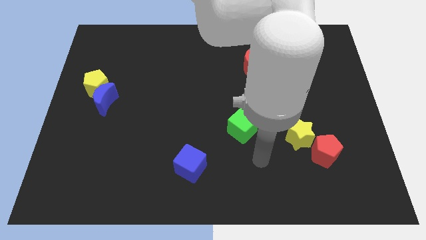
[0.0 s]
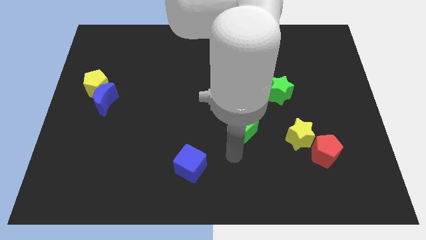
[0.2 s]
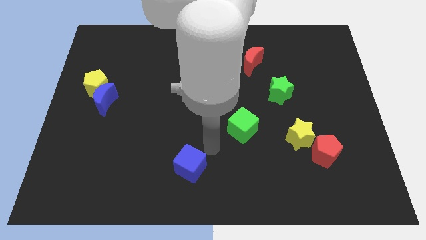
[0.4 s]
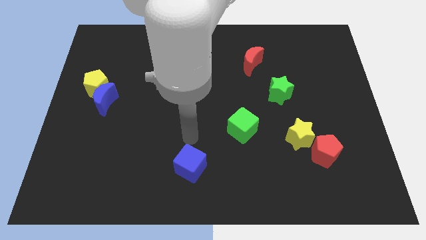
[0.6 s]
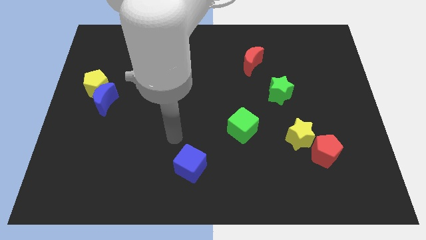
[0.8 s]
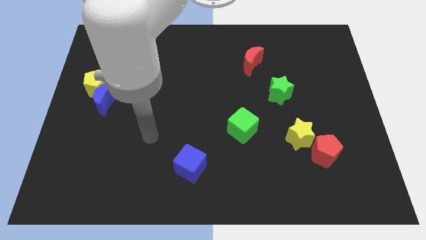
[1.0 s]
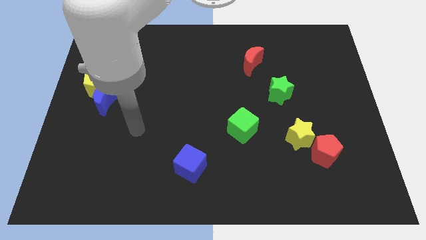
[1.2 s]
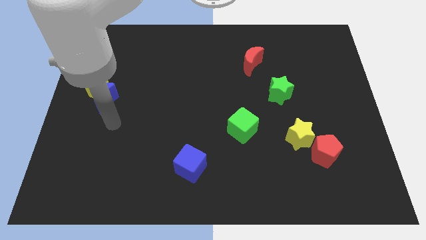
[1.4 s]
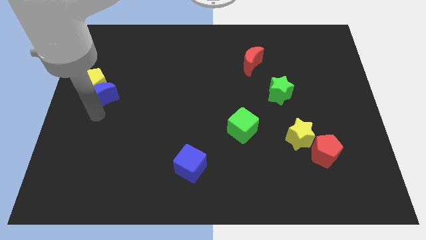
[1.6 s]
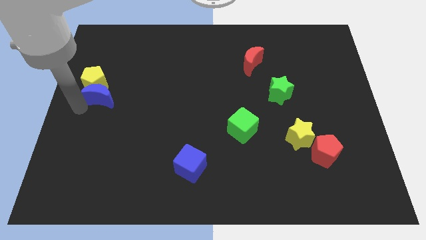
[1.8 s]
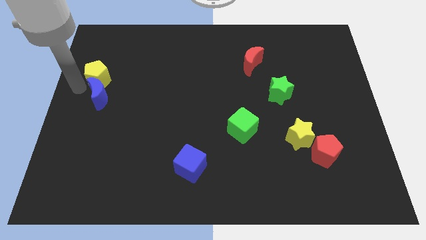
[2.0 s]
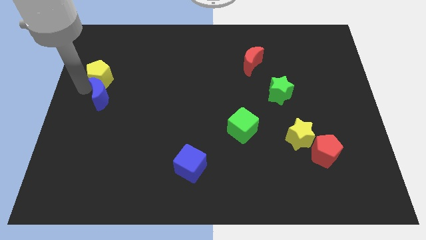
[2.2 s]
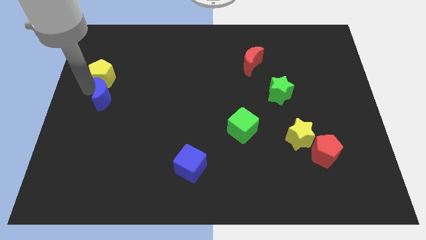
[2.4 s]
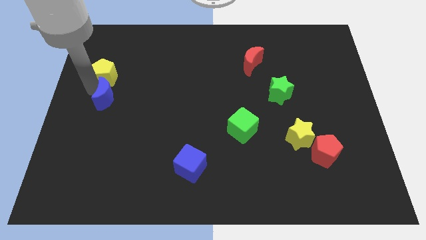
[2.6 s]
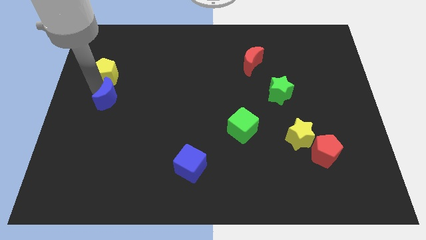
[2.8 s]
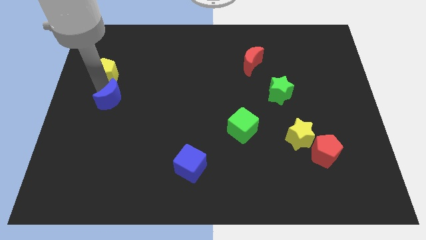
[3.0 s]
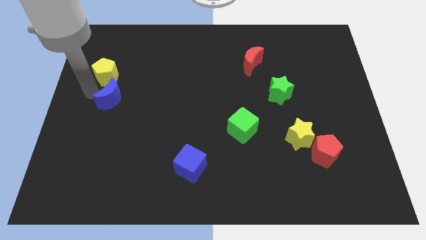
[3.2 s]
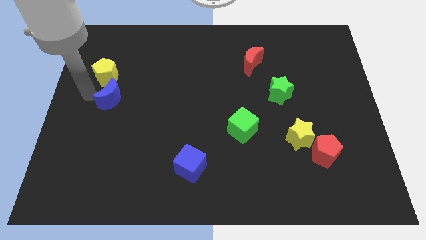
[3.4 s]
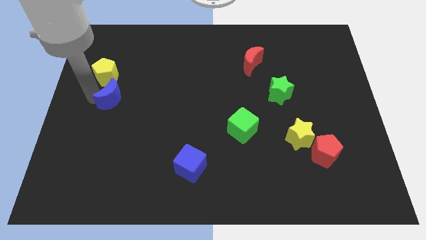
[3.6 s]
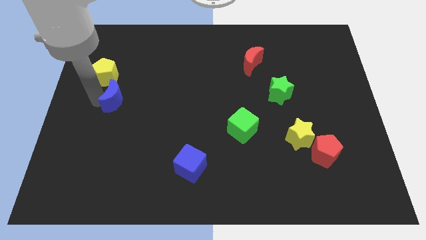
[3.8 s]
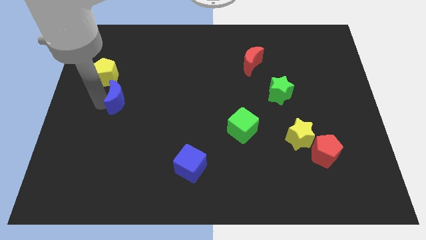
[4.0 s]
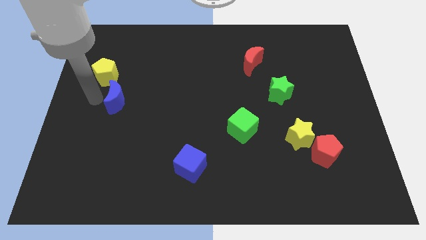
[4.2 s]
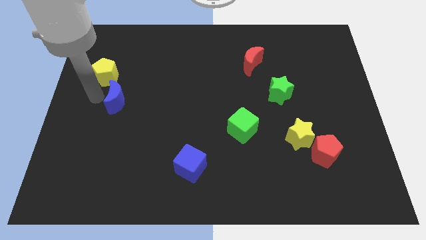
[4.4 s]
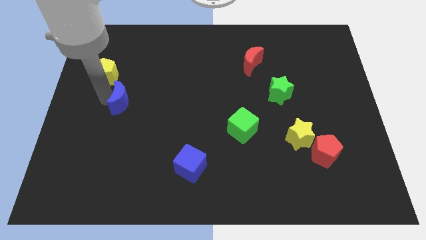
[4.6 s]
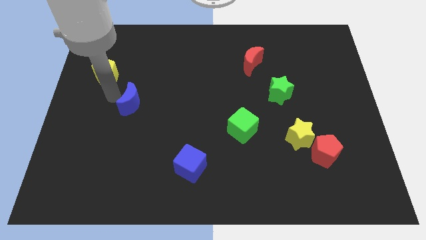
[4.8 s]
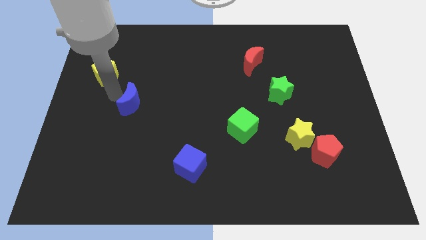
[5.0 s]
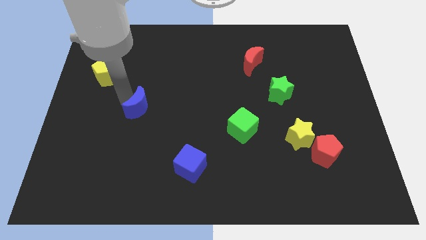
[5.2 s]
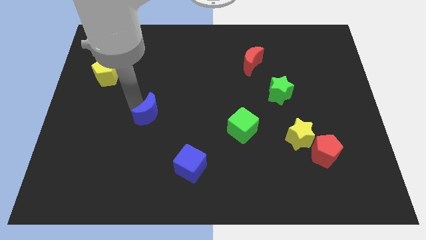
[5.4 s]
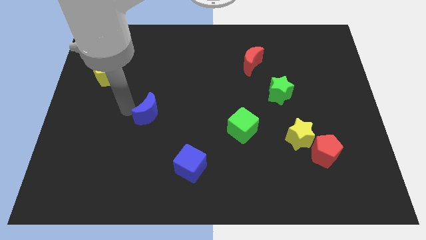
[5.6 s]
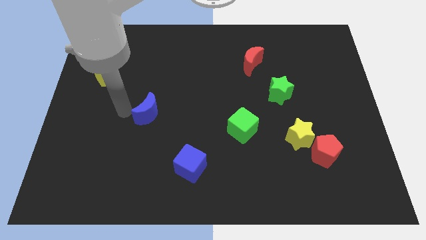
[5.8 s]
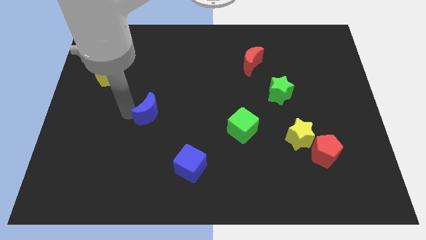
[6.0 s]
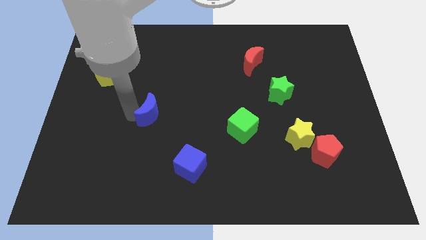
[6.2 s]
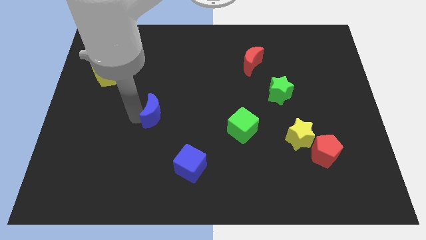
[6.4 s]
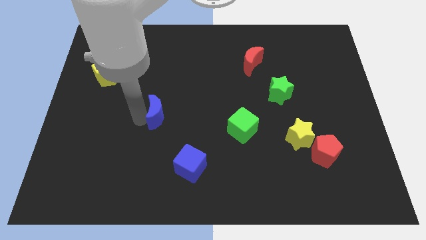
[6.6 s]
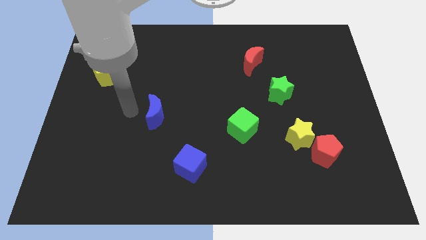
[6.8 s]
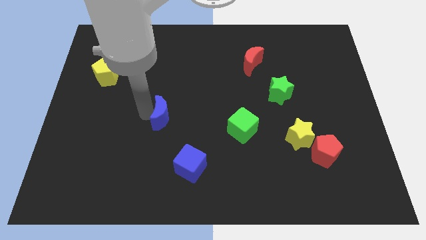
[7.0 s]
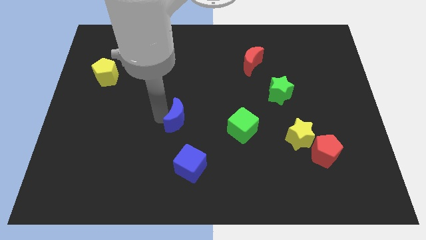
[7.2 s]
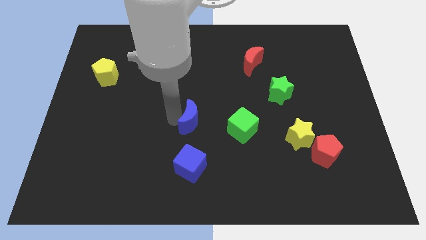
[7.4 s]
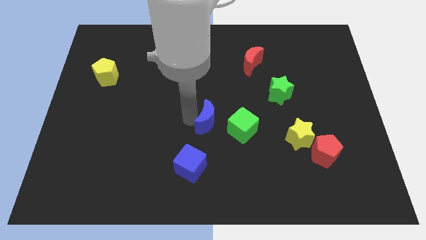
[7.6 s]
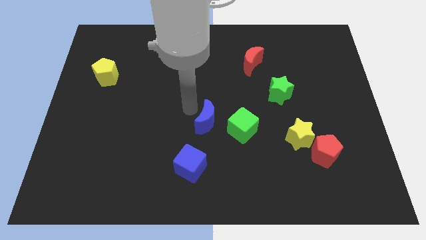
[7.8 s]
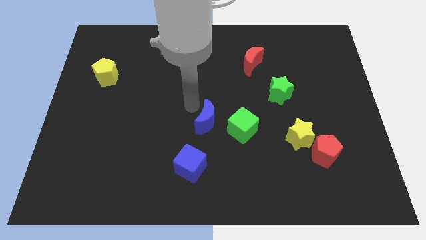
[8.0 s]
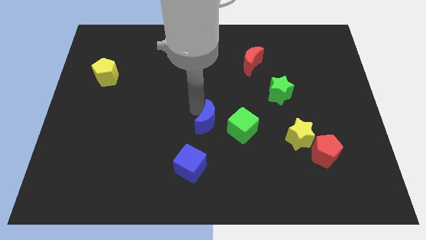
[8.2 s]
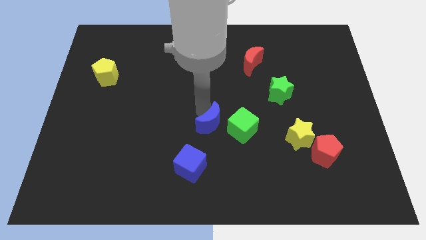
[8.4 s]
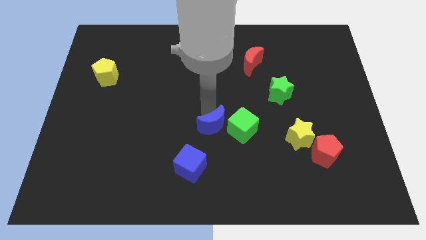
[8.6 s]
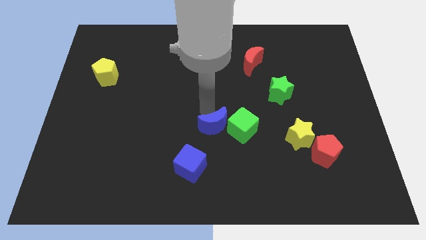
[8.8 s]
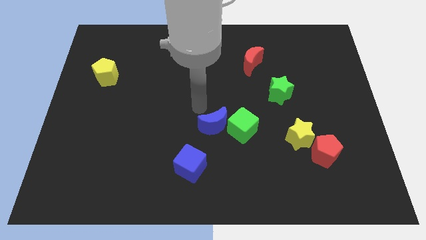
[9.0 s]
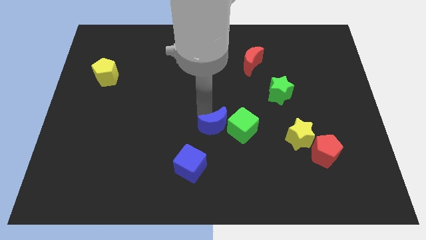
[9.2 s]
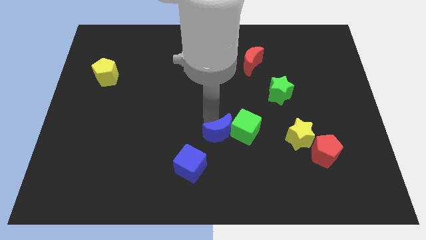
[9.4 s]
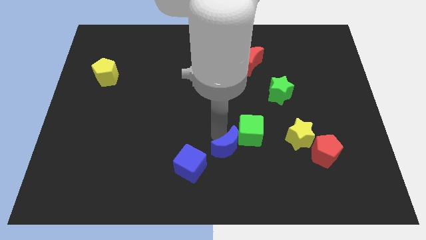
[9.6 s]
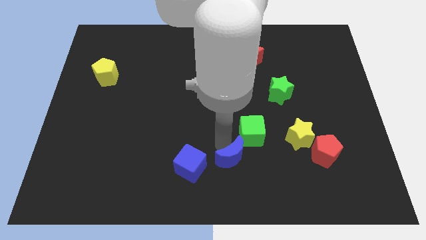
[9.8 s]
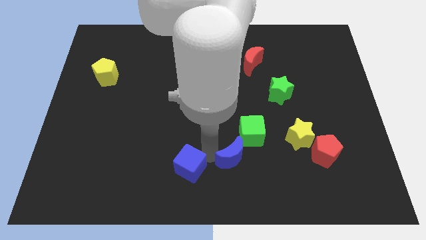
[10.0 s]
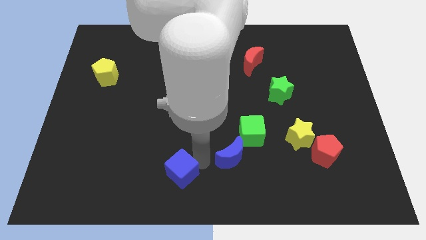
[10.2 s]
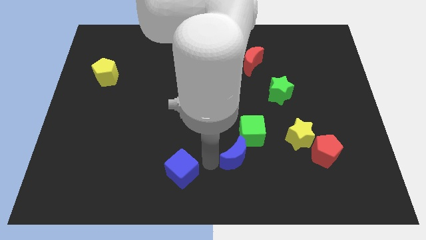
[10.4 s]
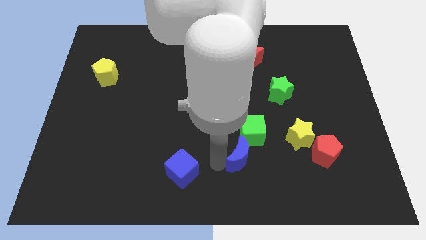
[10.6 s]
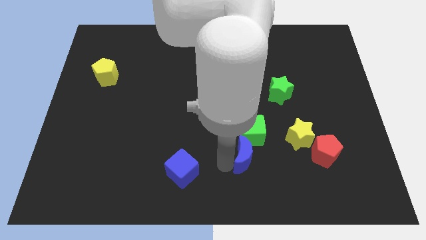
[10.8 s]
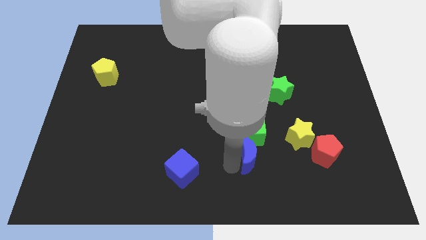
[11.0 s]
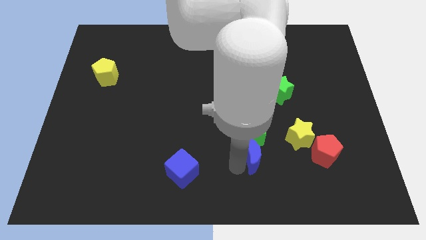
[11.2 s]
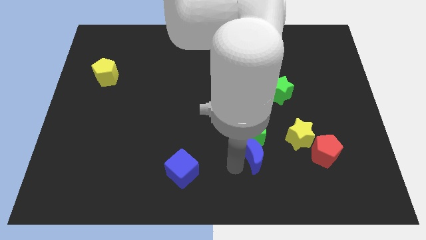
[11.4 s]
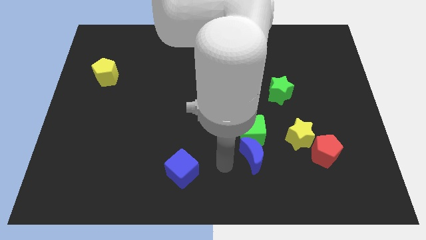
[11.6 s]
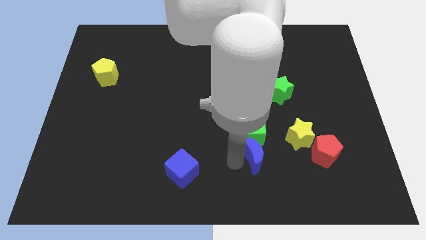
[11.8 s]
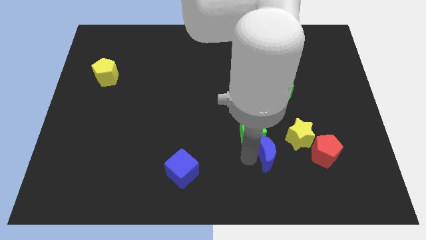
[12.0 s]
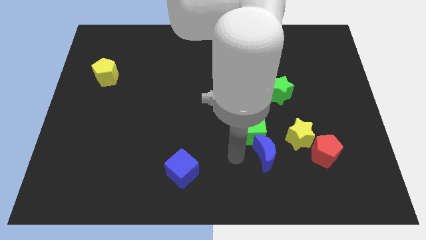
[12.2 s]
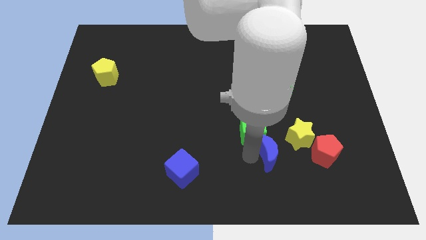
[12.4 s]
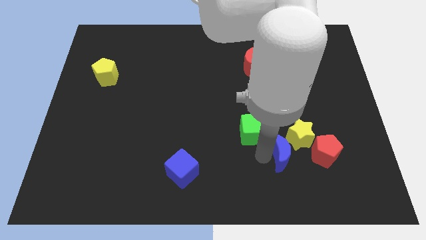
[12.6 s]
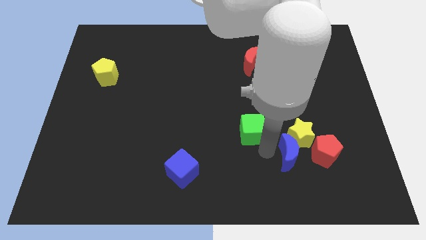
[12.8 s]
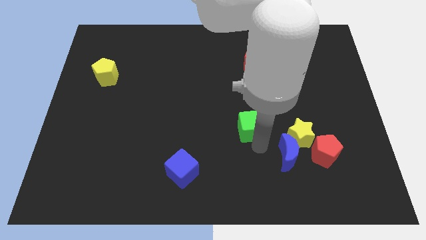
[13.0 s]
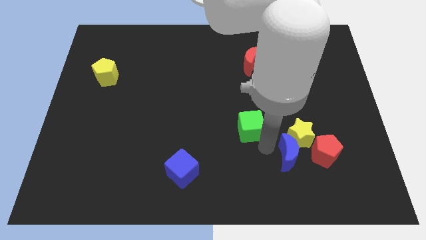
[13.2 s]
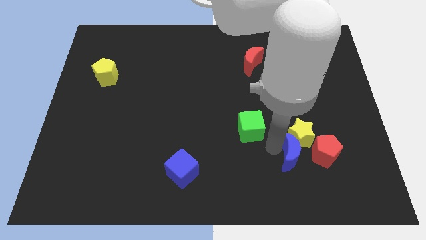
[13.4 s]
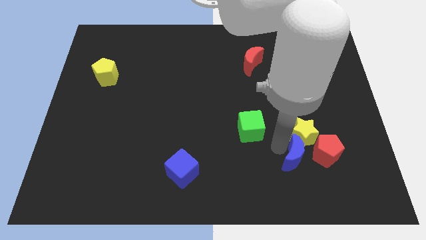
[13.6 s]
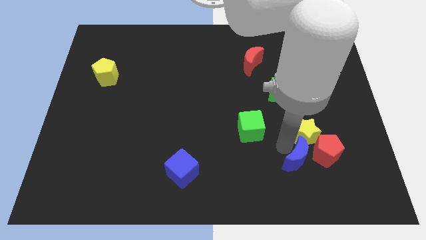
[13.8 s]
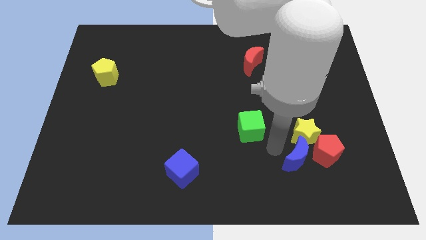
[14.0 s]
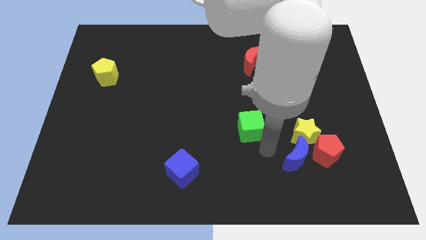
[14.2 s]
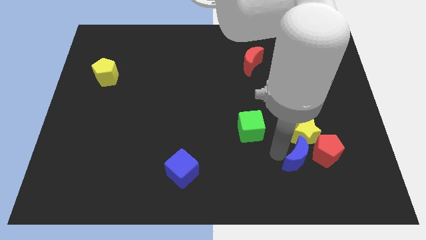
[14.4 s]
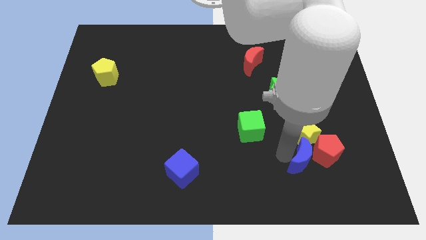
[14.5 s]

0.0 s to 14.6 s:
slide the blue moon close to the red pentagon
